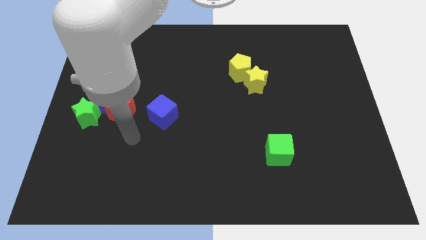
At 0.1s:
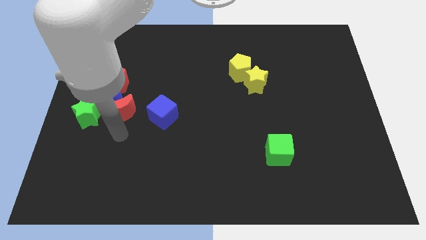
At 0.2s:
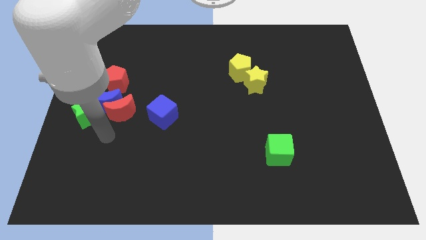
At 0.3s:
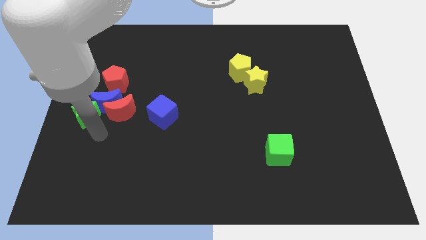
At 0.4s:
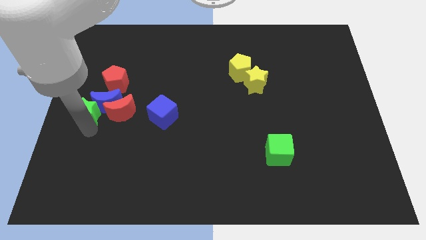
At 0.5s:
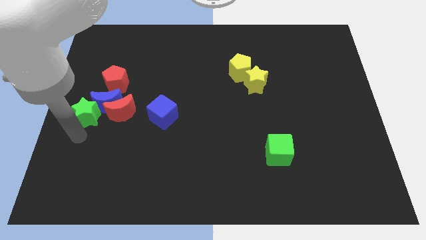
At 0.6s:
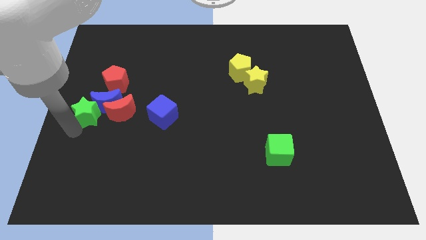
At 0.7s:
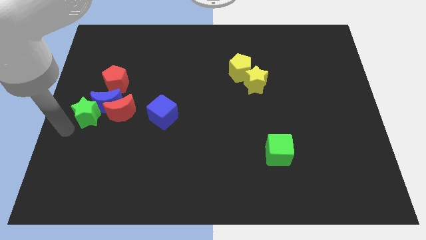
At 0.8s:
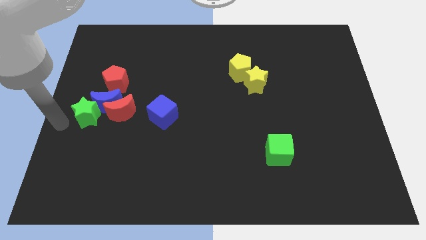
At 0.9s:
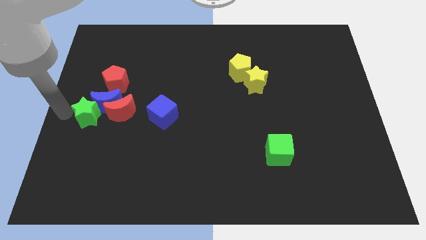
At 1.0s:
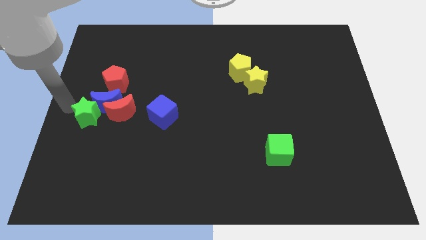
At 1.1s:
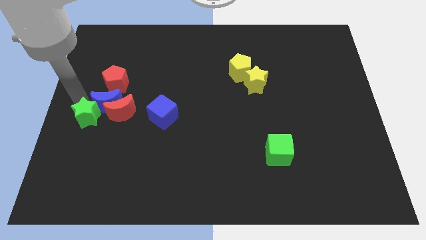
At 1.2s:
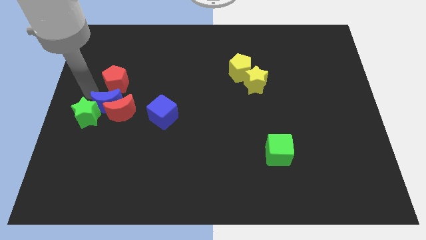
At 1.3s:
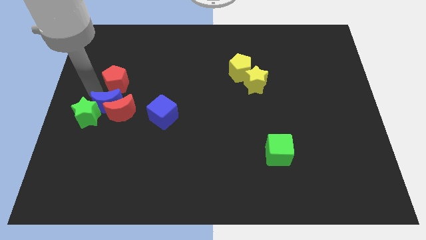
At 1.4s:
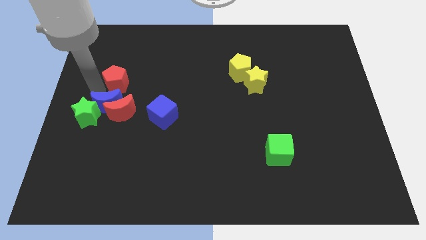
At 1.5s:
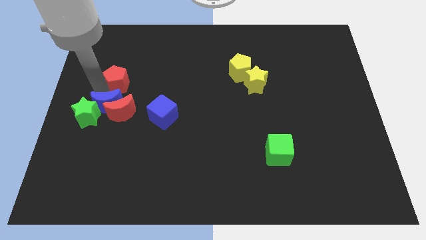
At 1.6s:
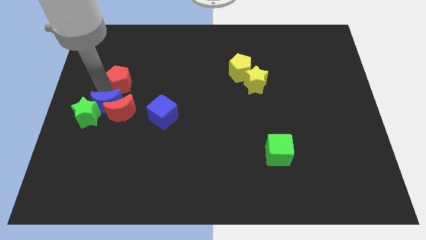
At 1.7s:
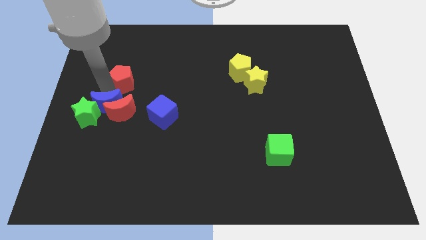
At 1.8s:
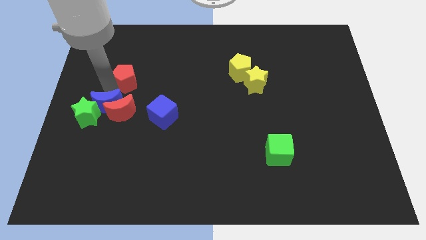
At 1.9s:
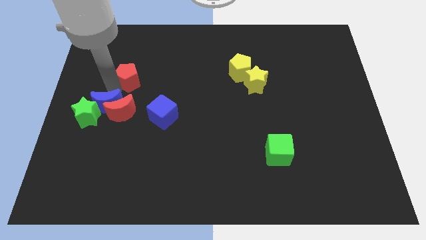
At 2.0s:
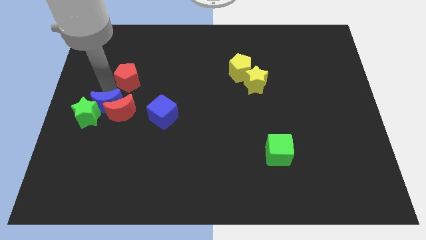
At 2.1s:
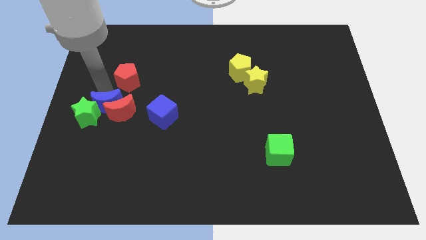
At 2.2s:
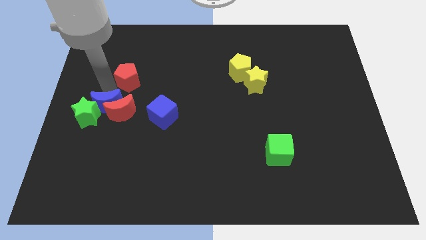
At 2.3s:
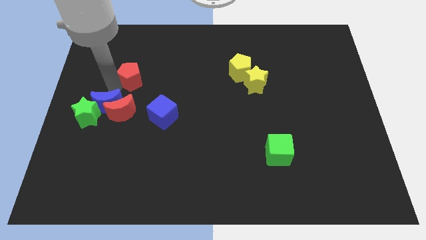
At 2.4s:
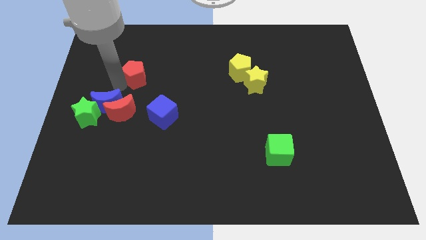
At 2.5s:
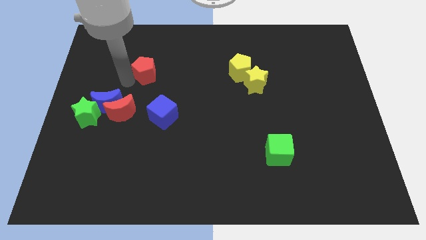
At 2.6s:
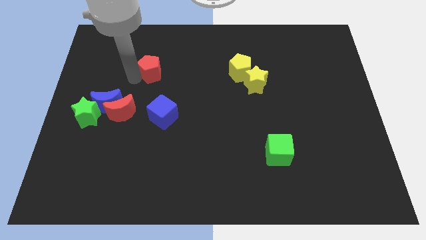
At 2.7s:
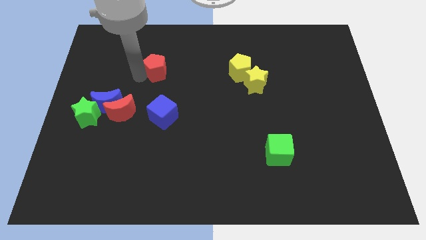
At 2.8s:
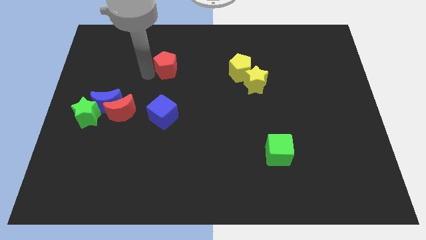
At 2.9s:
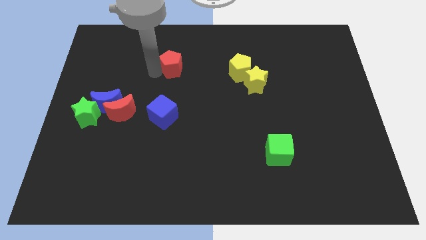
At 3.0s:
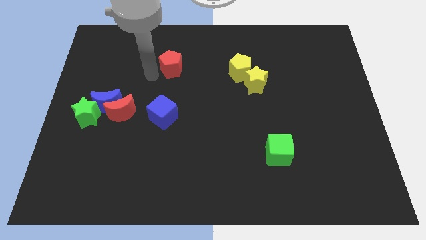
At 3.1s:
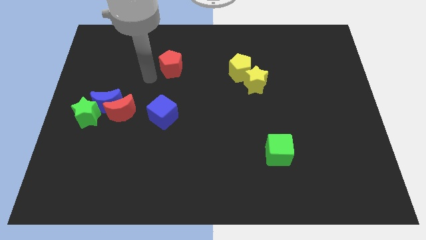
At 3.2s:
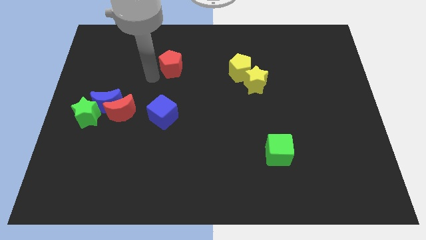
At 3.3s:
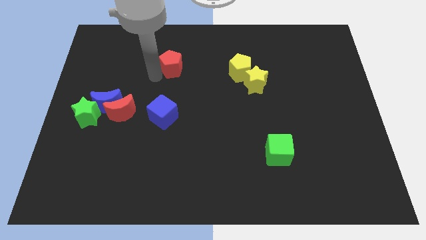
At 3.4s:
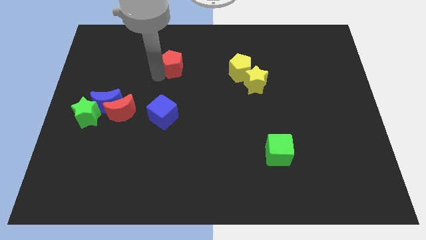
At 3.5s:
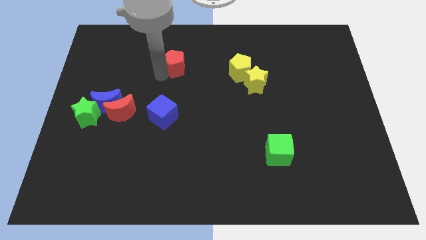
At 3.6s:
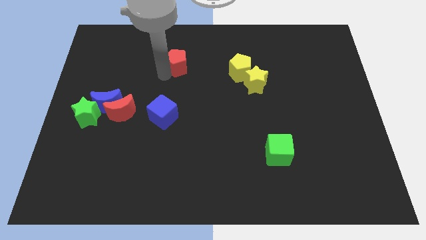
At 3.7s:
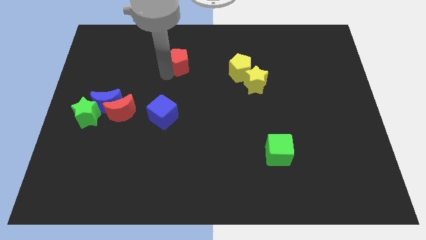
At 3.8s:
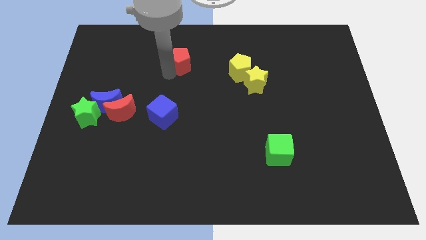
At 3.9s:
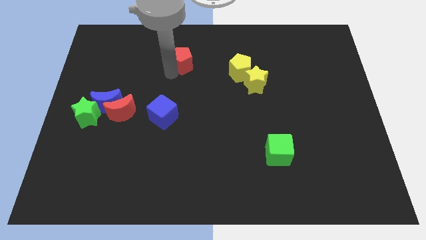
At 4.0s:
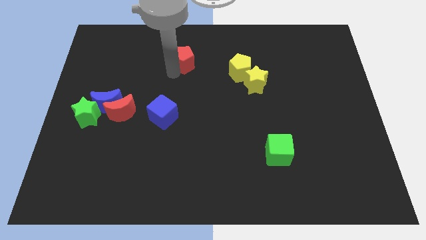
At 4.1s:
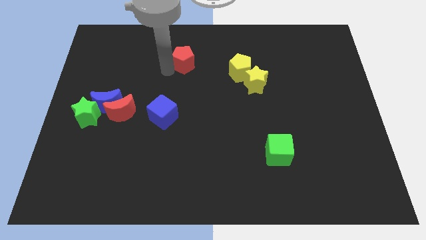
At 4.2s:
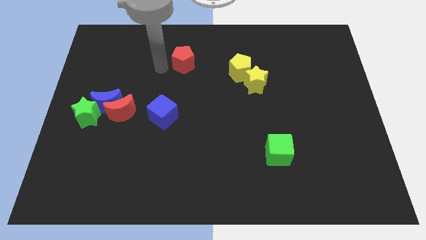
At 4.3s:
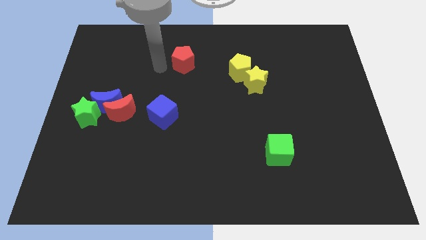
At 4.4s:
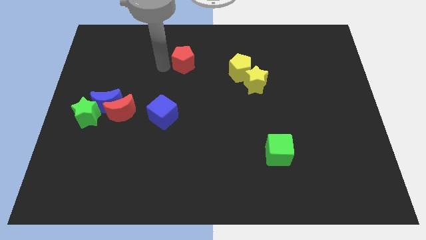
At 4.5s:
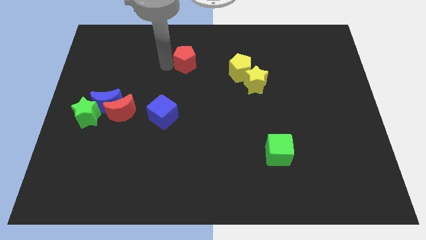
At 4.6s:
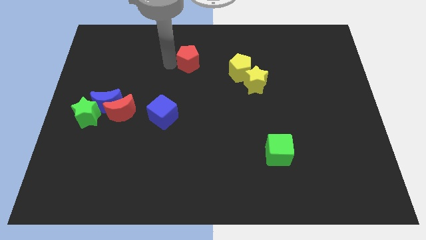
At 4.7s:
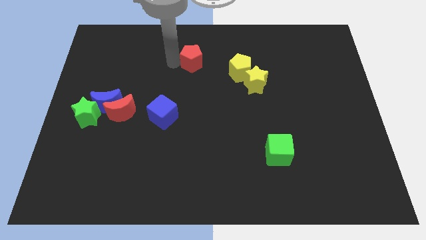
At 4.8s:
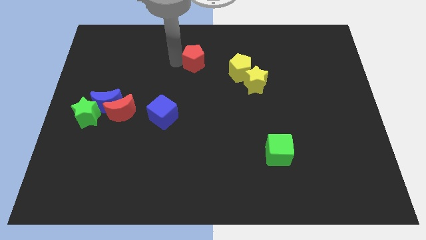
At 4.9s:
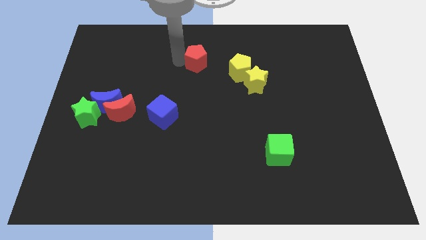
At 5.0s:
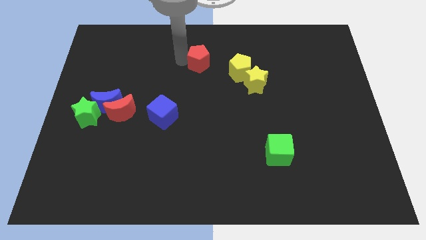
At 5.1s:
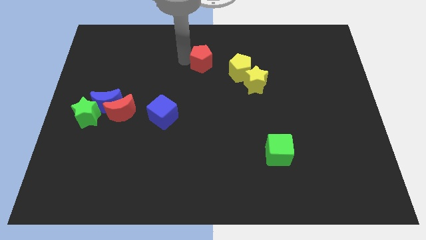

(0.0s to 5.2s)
move the red pentagon to the top left side of the yellow pentagon

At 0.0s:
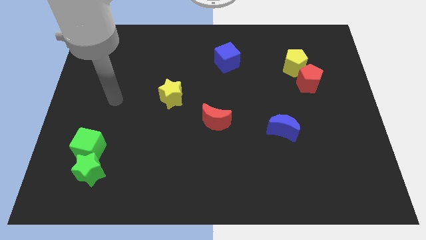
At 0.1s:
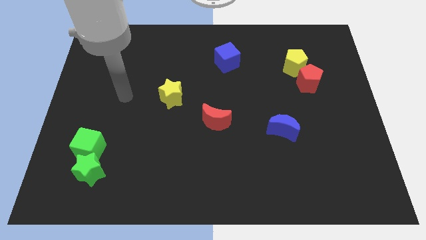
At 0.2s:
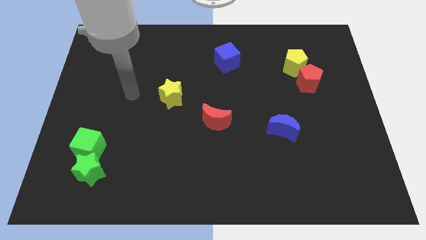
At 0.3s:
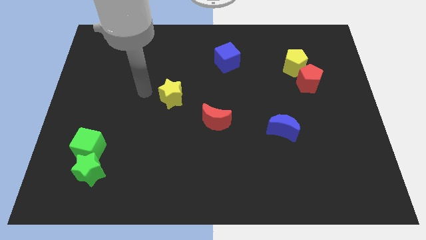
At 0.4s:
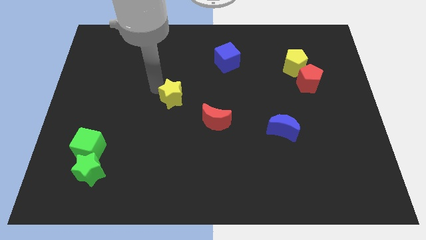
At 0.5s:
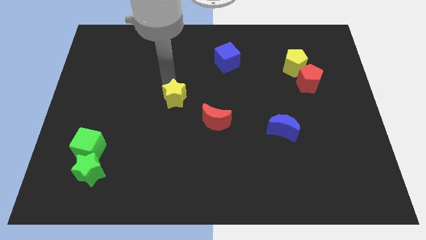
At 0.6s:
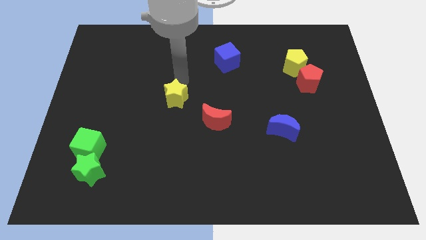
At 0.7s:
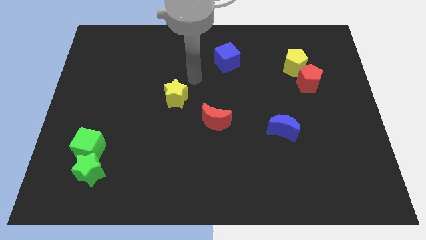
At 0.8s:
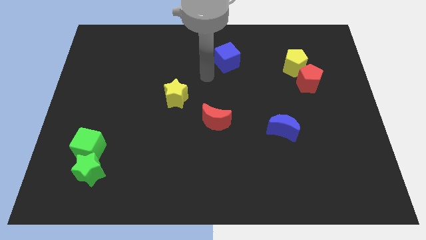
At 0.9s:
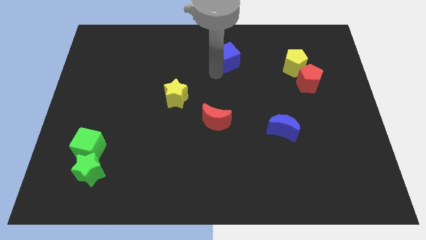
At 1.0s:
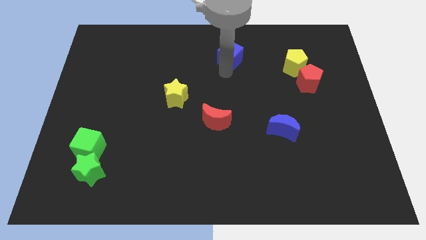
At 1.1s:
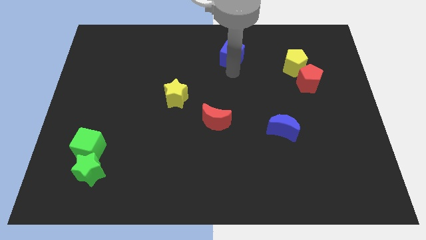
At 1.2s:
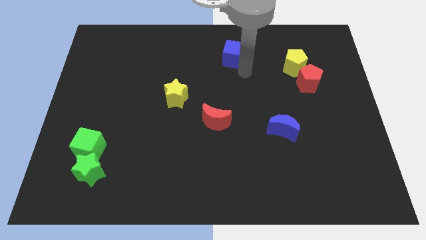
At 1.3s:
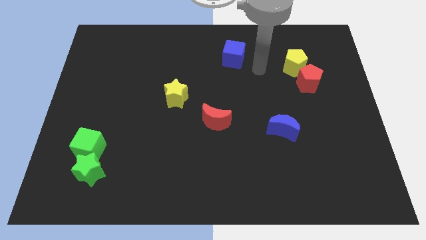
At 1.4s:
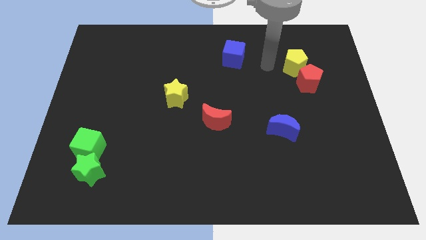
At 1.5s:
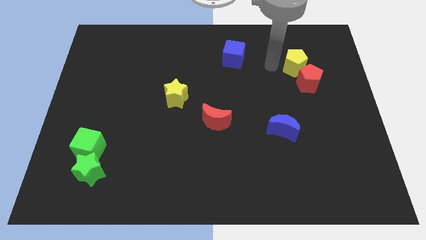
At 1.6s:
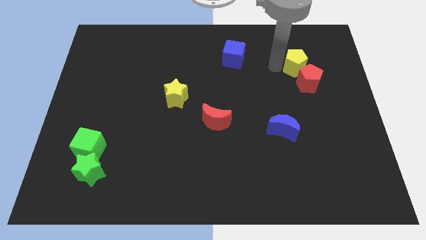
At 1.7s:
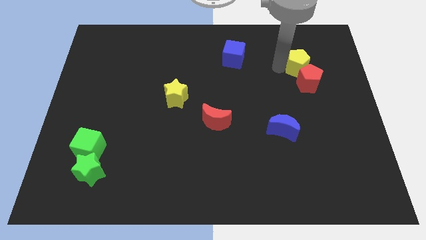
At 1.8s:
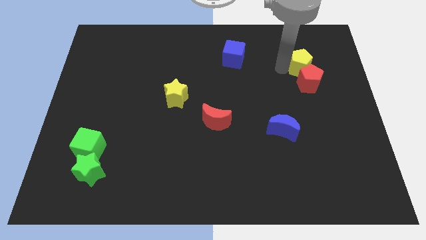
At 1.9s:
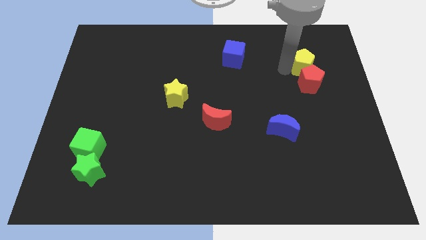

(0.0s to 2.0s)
push the yellow pentagon to the top right side of the red pentagon
